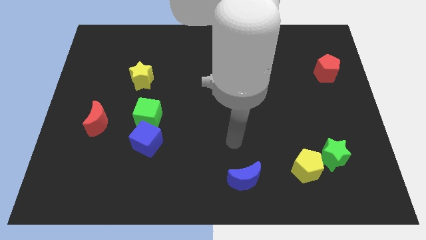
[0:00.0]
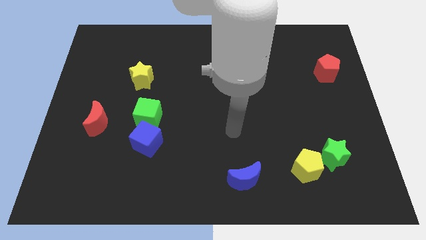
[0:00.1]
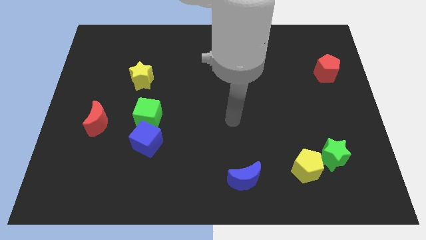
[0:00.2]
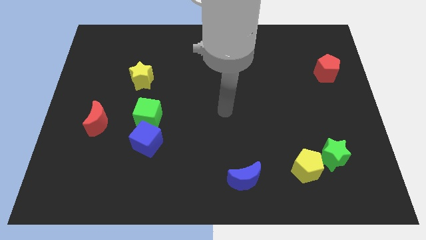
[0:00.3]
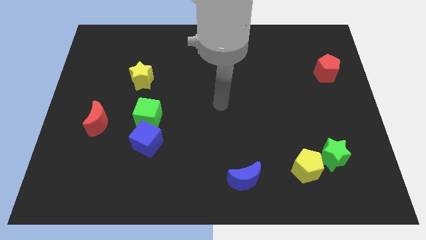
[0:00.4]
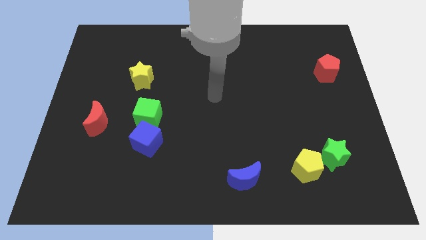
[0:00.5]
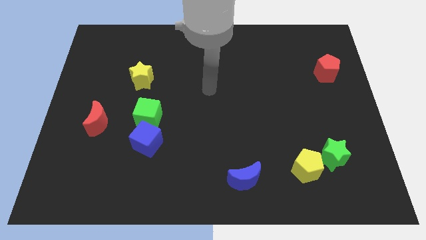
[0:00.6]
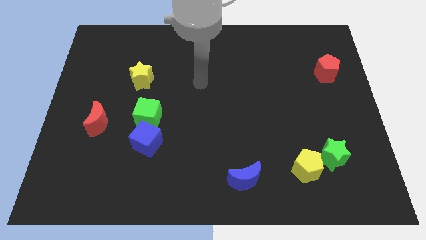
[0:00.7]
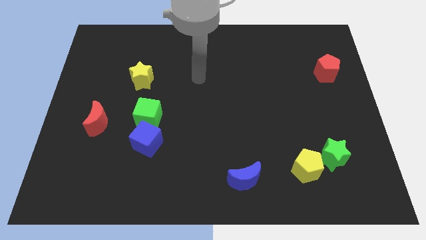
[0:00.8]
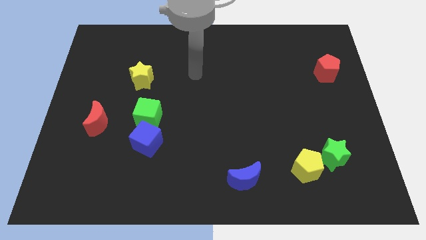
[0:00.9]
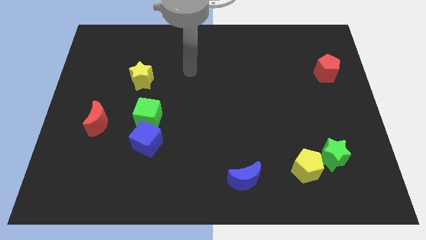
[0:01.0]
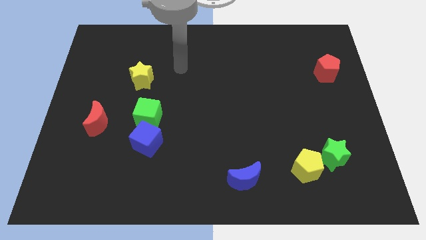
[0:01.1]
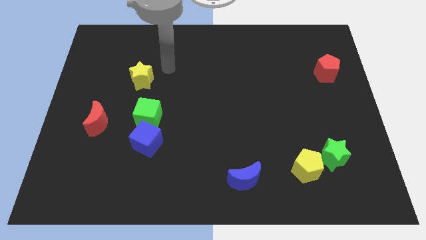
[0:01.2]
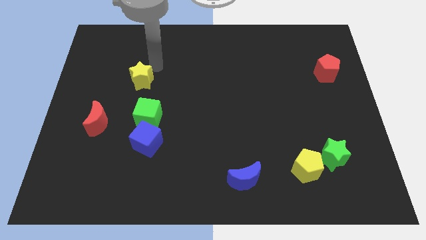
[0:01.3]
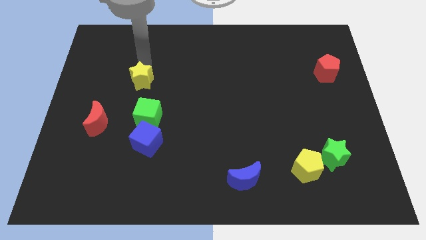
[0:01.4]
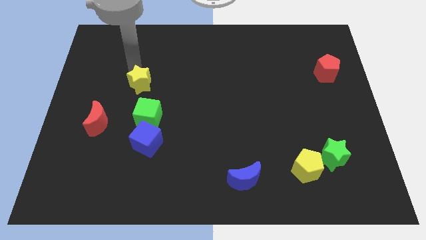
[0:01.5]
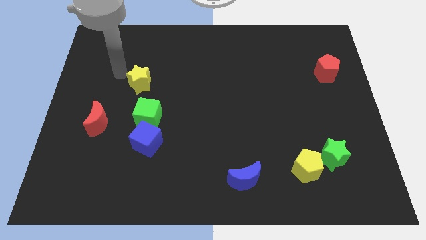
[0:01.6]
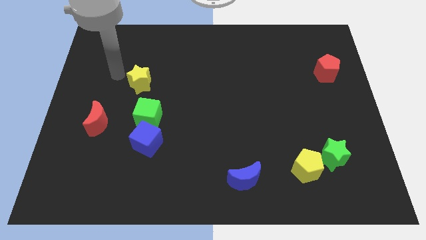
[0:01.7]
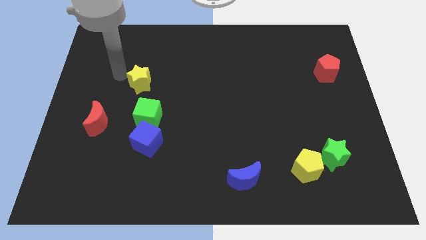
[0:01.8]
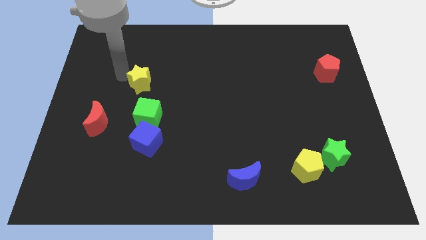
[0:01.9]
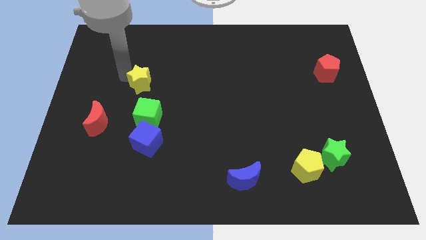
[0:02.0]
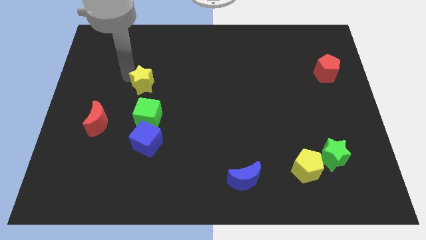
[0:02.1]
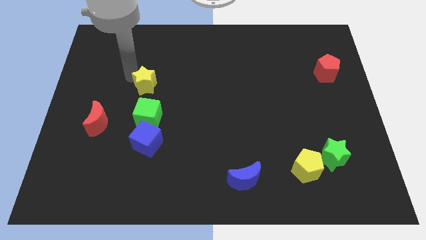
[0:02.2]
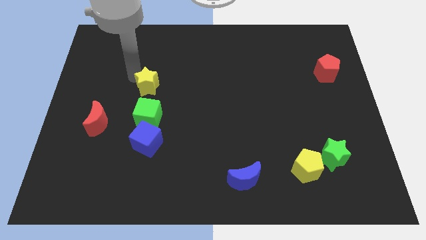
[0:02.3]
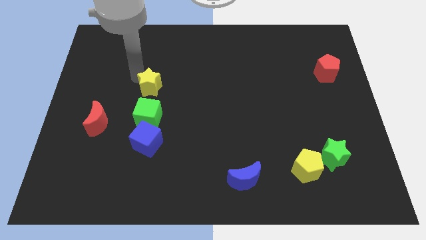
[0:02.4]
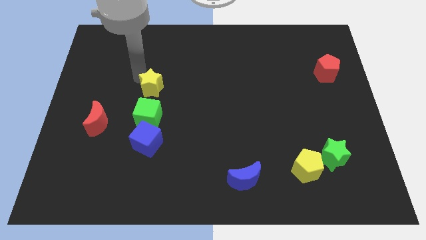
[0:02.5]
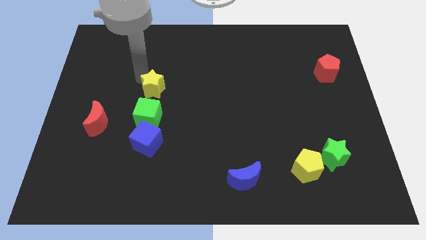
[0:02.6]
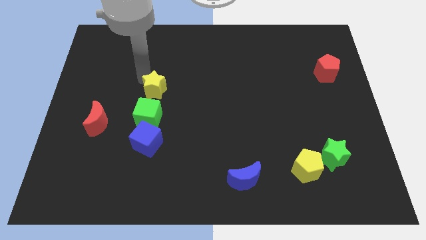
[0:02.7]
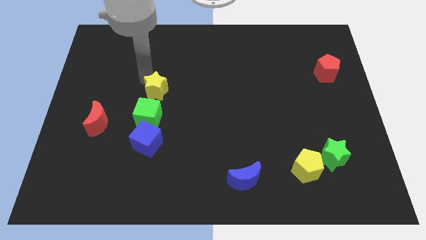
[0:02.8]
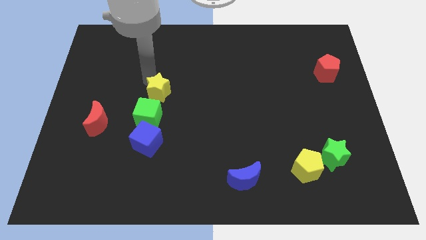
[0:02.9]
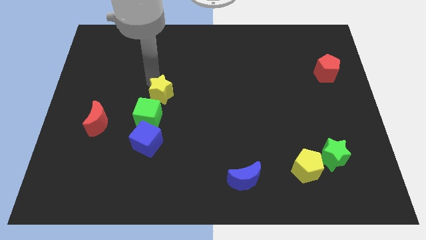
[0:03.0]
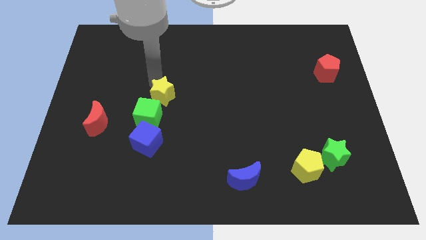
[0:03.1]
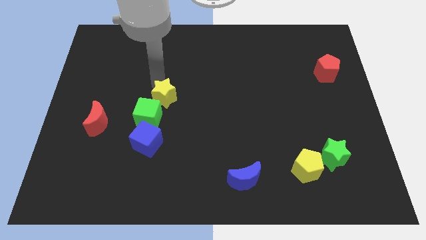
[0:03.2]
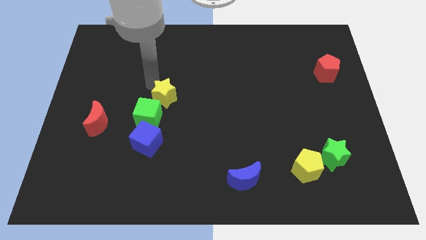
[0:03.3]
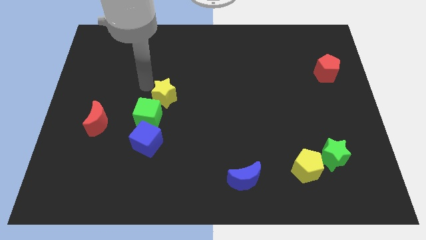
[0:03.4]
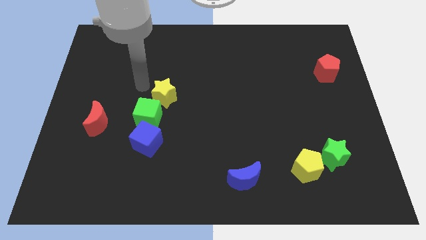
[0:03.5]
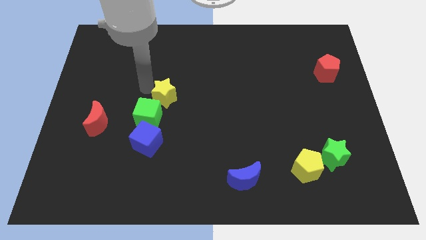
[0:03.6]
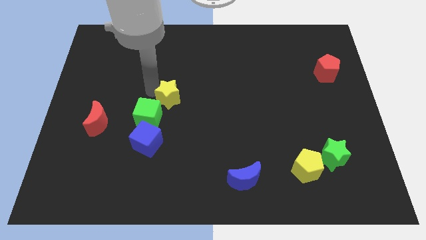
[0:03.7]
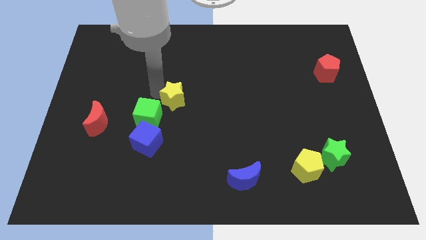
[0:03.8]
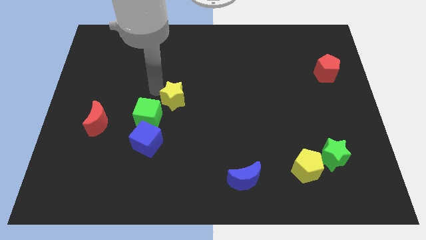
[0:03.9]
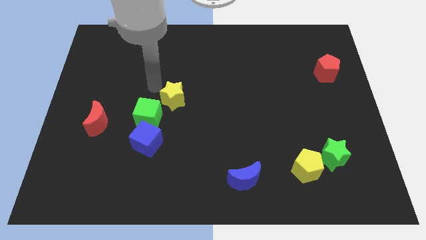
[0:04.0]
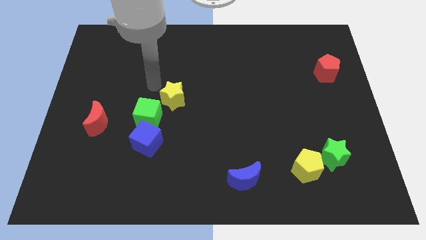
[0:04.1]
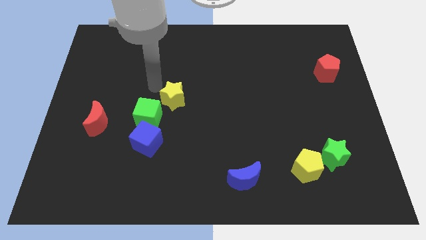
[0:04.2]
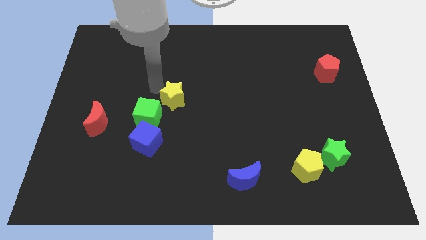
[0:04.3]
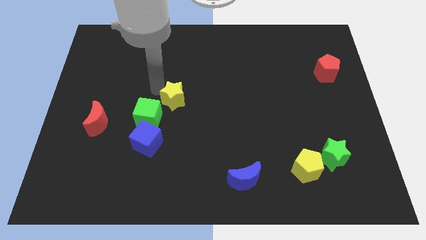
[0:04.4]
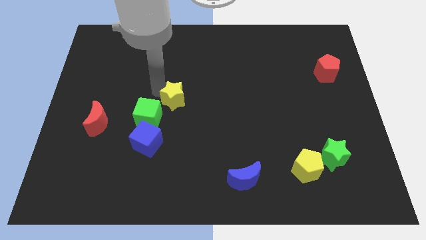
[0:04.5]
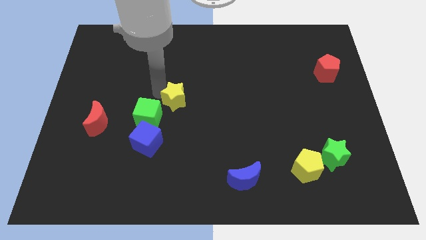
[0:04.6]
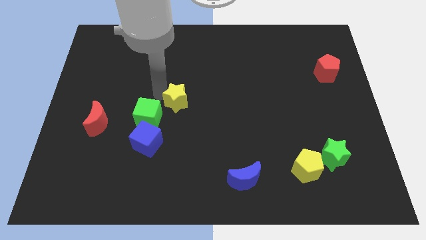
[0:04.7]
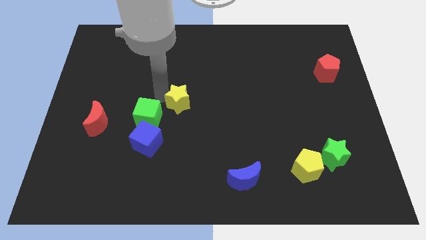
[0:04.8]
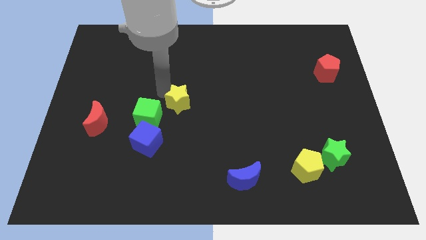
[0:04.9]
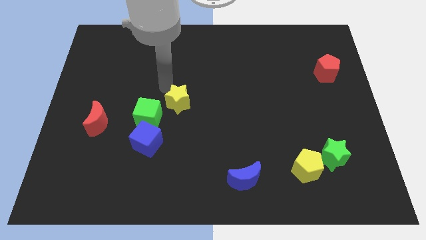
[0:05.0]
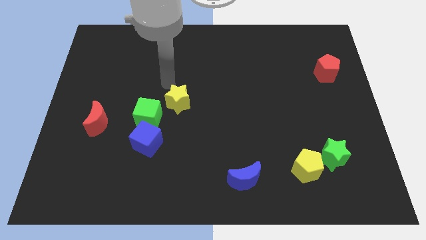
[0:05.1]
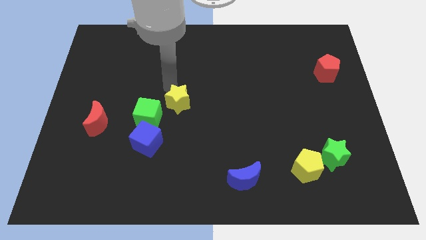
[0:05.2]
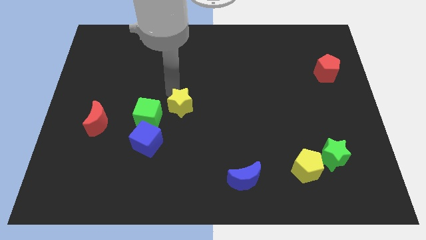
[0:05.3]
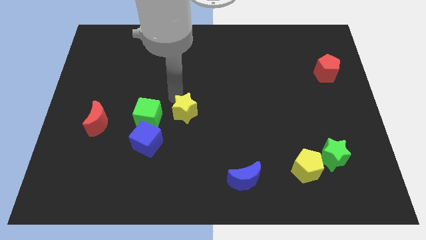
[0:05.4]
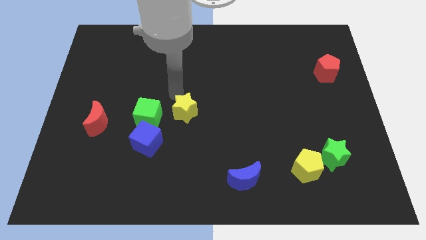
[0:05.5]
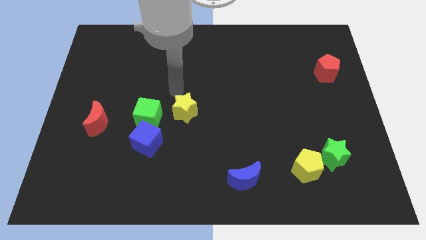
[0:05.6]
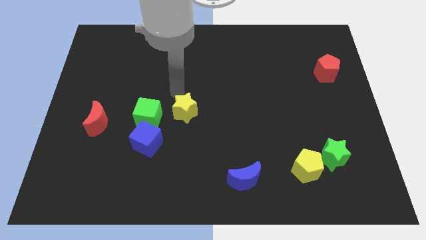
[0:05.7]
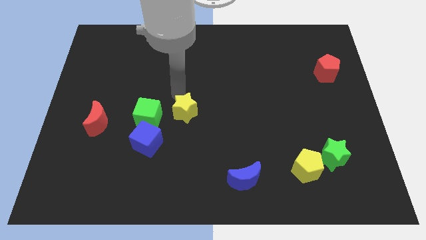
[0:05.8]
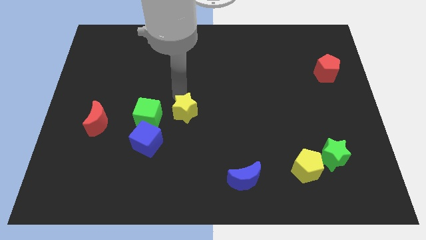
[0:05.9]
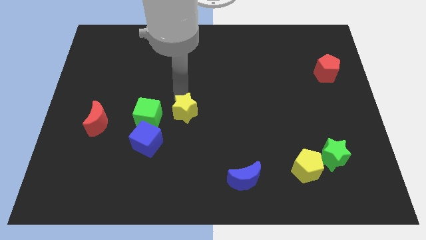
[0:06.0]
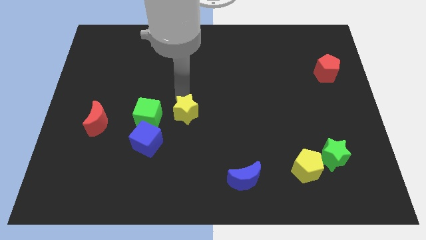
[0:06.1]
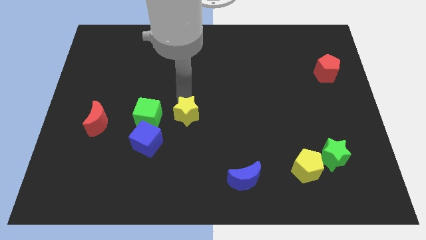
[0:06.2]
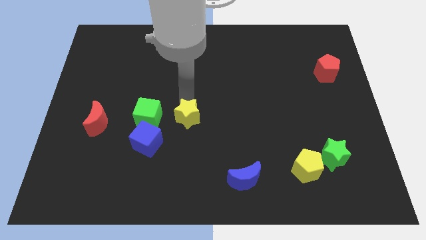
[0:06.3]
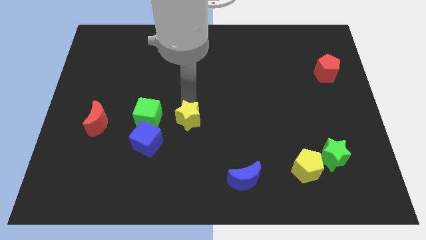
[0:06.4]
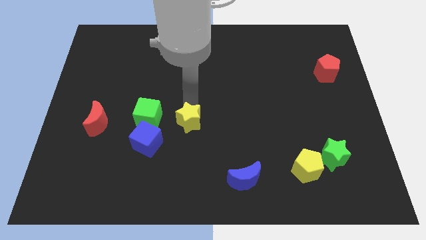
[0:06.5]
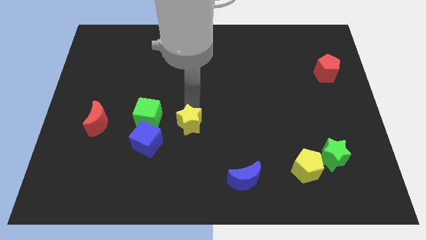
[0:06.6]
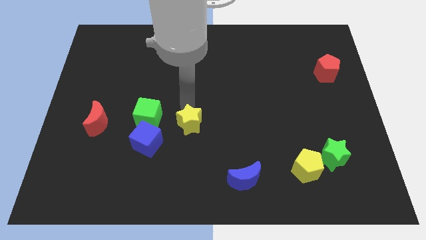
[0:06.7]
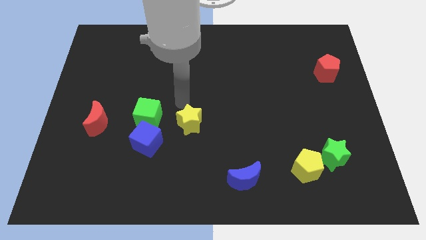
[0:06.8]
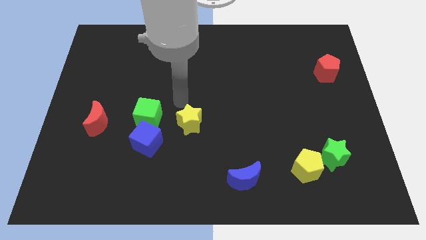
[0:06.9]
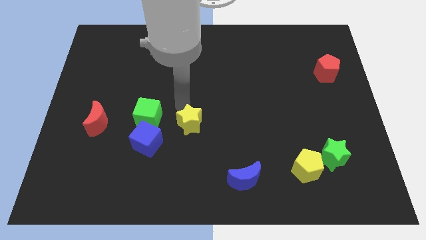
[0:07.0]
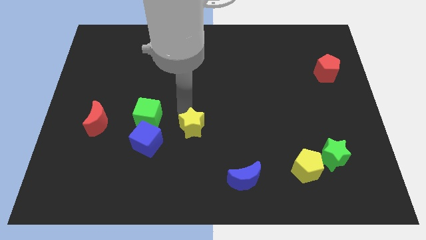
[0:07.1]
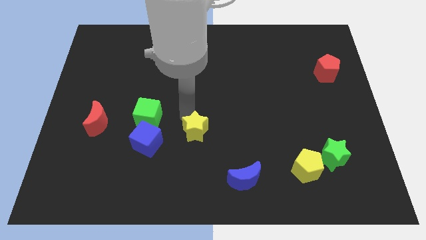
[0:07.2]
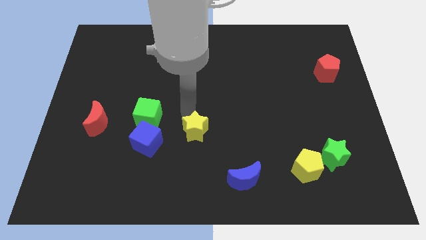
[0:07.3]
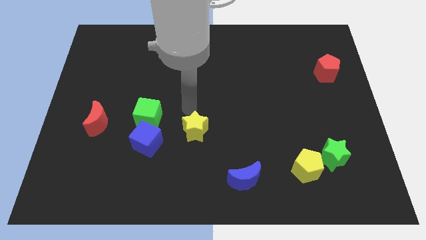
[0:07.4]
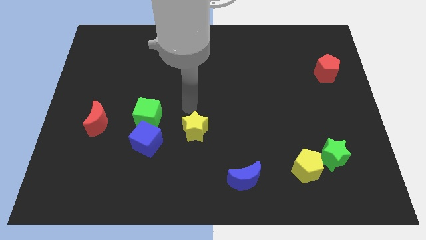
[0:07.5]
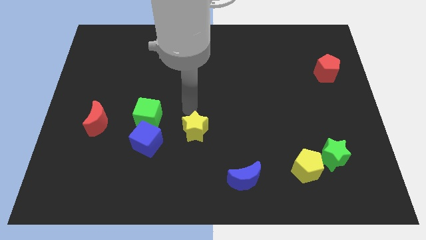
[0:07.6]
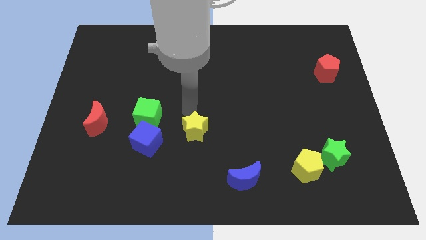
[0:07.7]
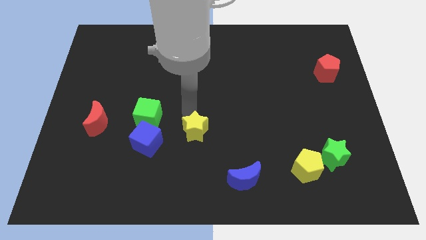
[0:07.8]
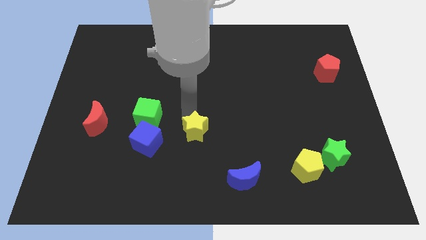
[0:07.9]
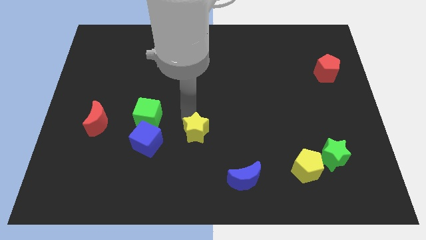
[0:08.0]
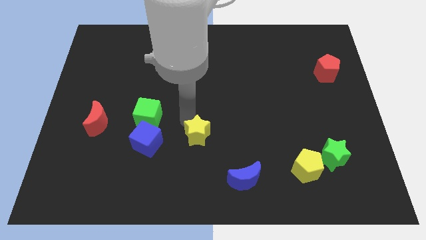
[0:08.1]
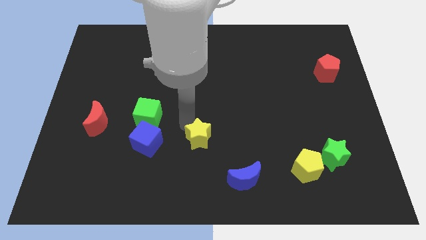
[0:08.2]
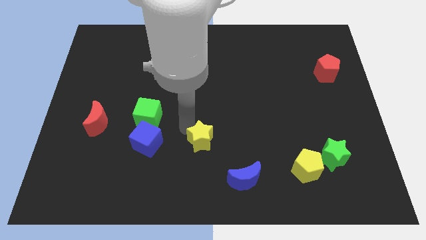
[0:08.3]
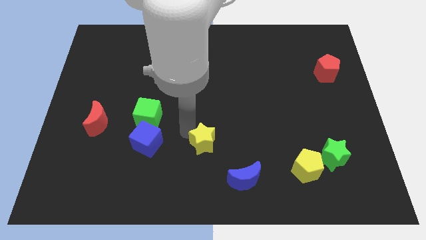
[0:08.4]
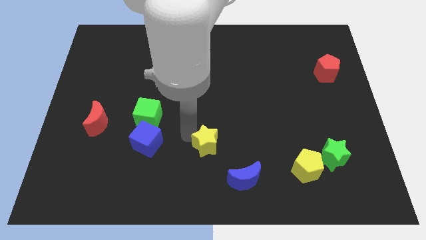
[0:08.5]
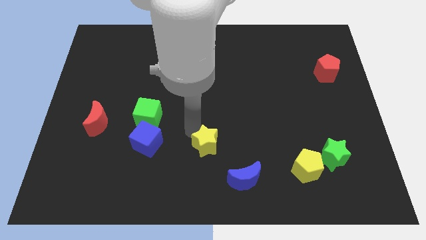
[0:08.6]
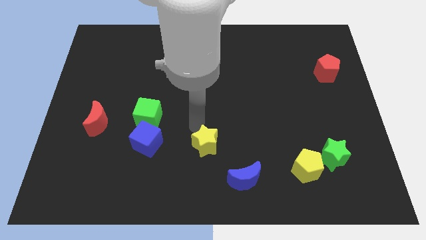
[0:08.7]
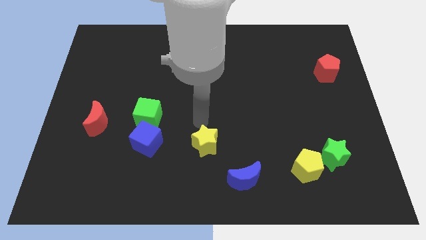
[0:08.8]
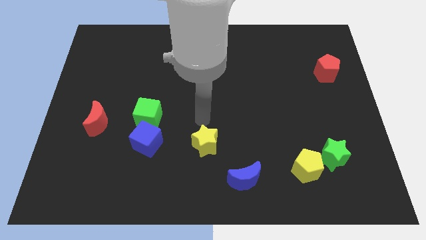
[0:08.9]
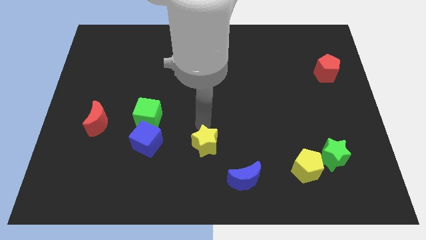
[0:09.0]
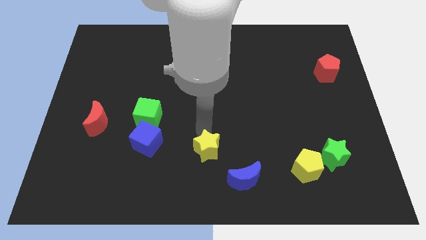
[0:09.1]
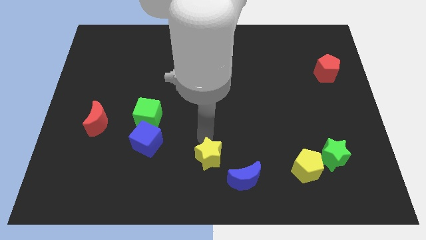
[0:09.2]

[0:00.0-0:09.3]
put the yellow star to the bottom side
